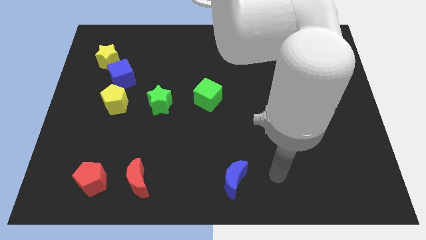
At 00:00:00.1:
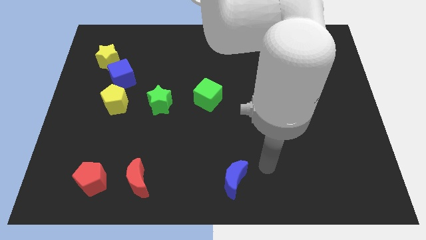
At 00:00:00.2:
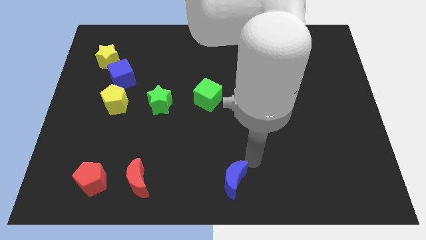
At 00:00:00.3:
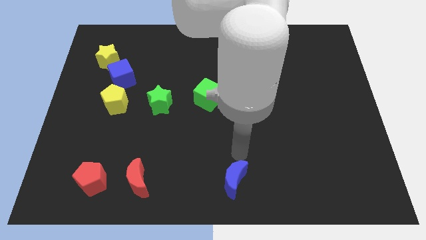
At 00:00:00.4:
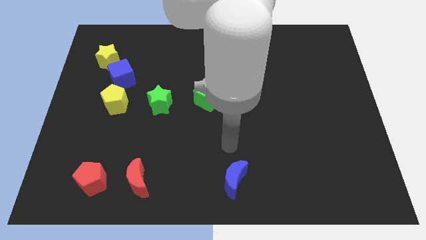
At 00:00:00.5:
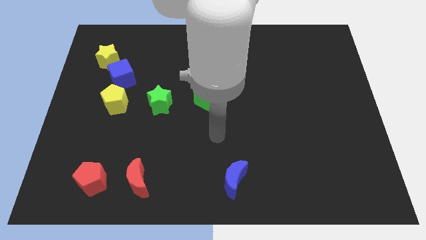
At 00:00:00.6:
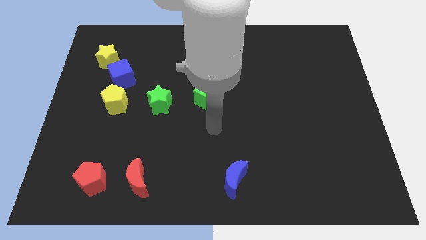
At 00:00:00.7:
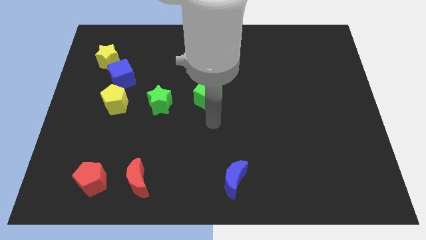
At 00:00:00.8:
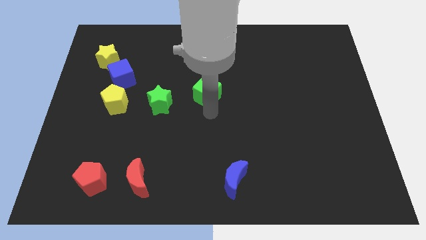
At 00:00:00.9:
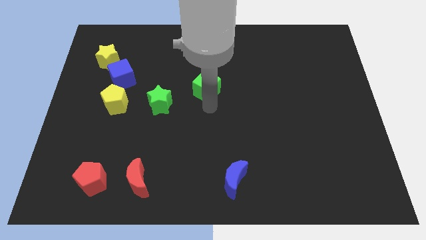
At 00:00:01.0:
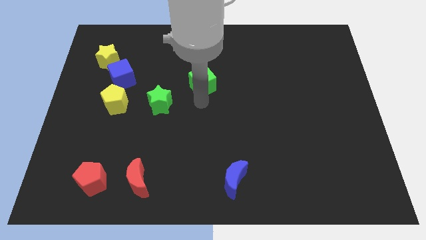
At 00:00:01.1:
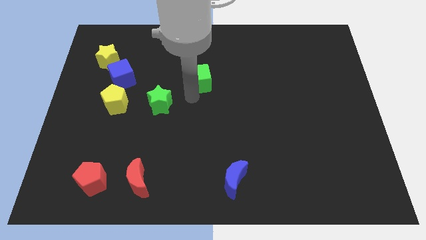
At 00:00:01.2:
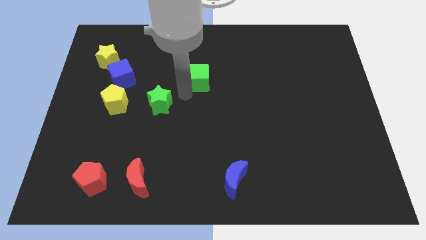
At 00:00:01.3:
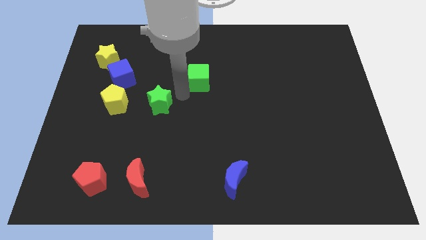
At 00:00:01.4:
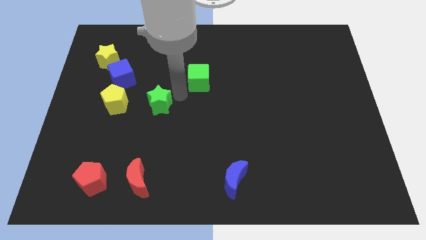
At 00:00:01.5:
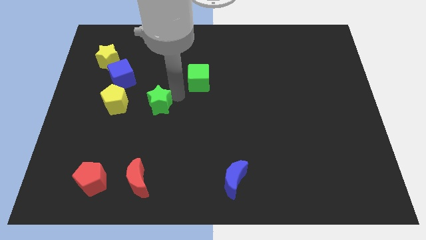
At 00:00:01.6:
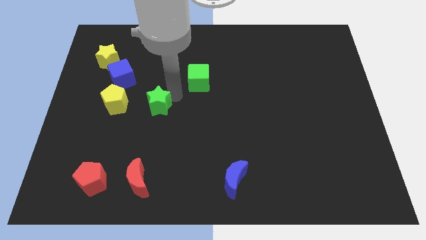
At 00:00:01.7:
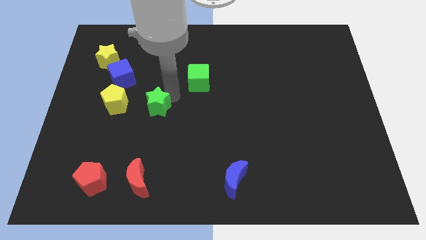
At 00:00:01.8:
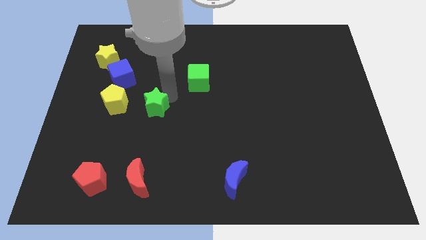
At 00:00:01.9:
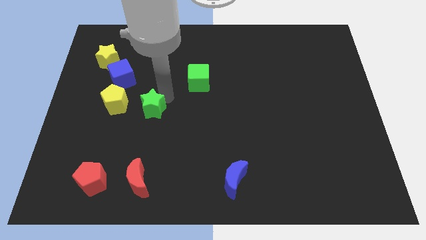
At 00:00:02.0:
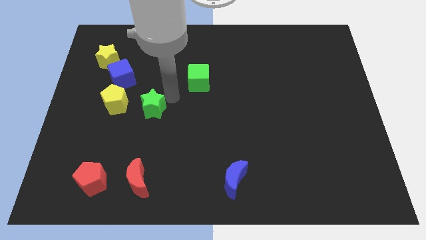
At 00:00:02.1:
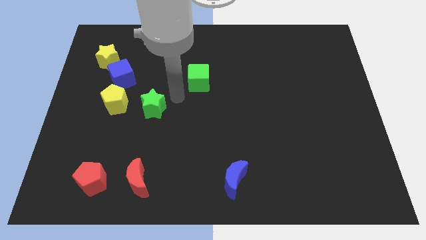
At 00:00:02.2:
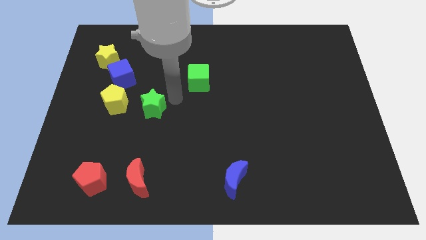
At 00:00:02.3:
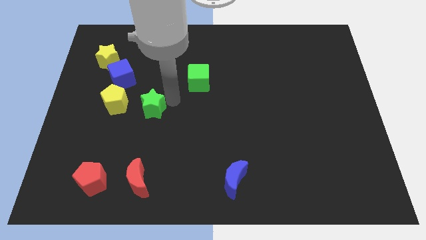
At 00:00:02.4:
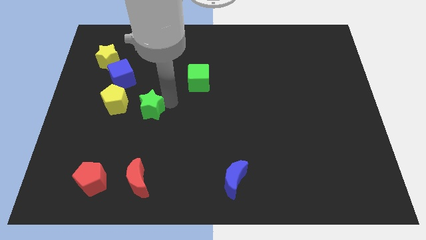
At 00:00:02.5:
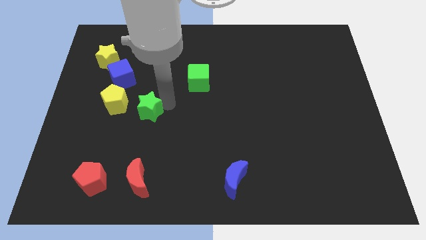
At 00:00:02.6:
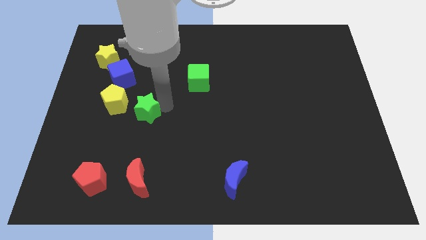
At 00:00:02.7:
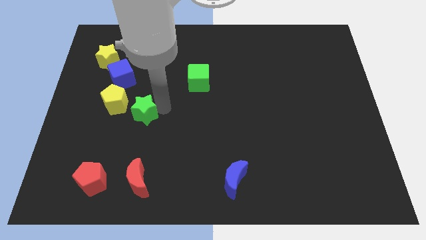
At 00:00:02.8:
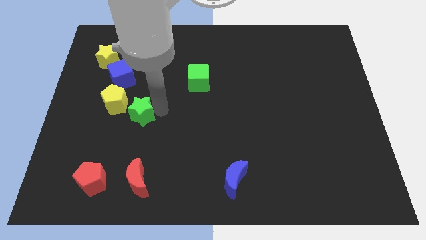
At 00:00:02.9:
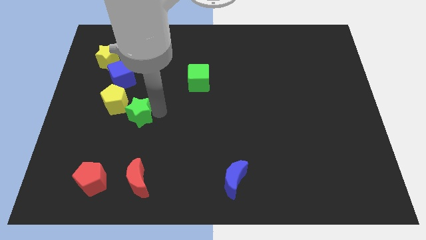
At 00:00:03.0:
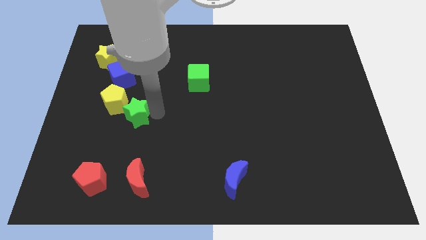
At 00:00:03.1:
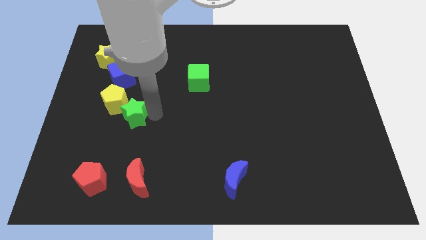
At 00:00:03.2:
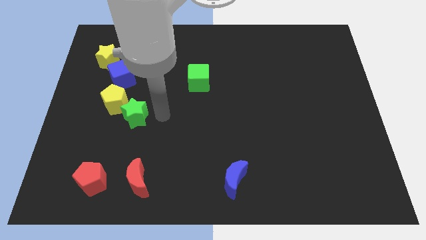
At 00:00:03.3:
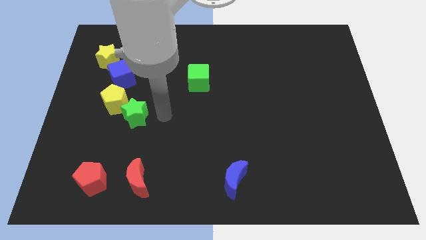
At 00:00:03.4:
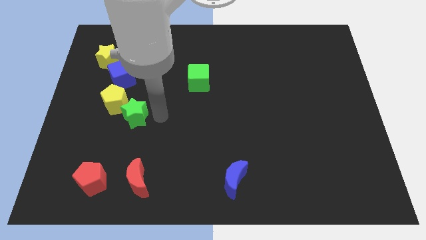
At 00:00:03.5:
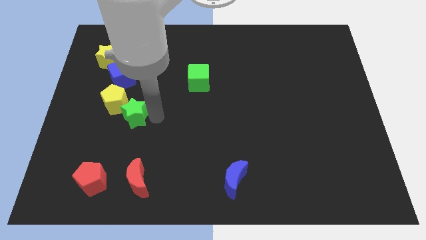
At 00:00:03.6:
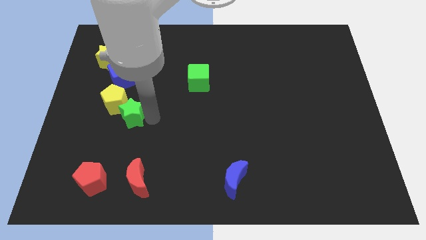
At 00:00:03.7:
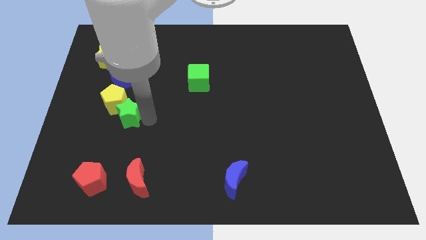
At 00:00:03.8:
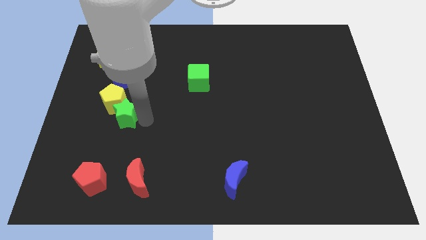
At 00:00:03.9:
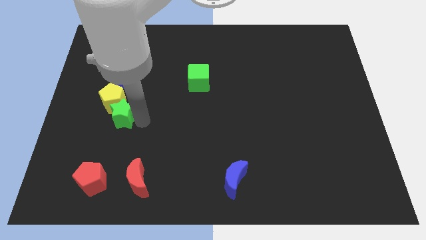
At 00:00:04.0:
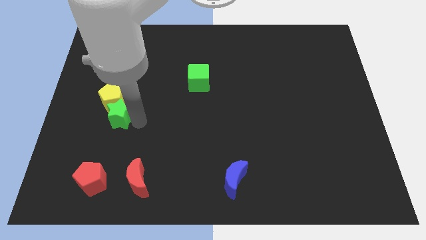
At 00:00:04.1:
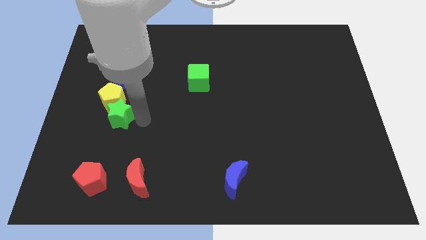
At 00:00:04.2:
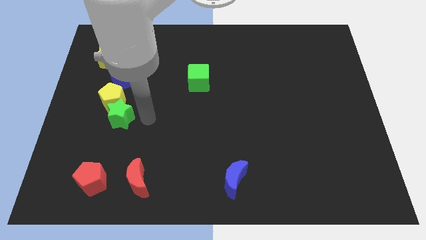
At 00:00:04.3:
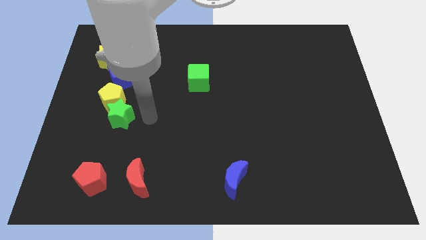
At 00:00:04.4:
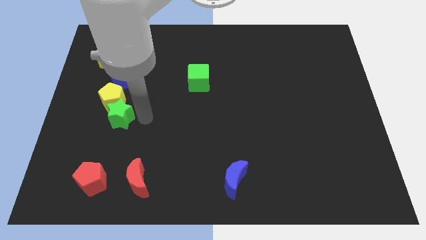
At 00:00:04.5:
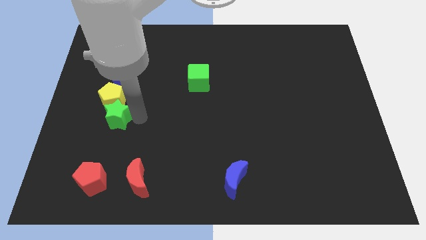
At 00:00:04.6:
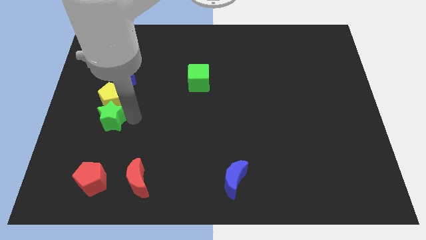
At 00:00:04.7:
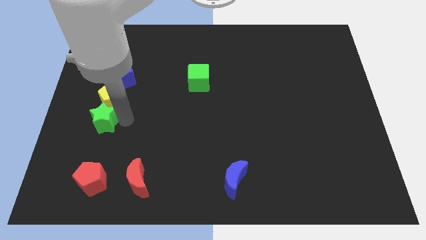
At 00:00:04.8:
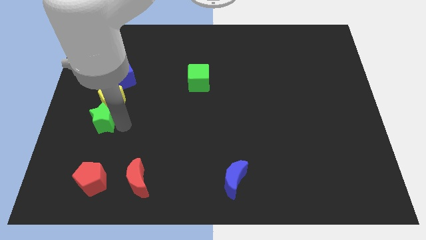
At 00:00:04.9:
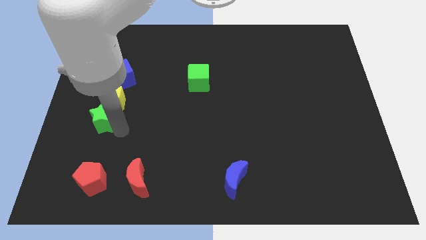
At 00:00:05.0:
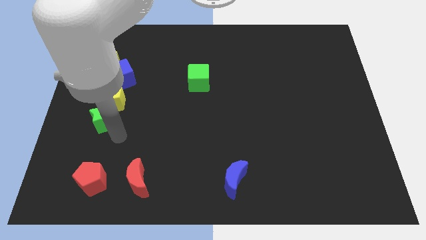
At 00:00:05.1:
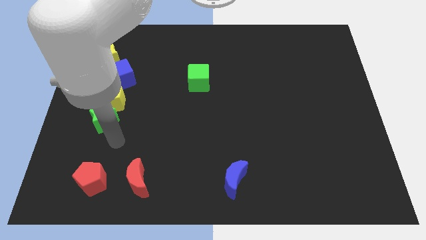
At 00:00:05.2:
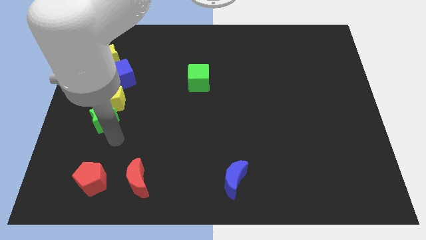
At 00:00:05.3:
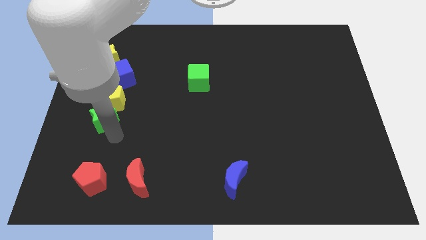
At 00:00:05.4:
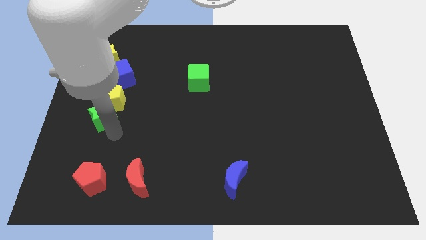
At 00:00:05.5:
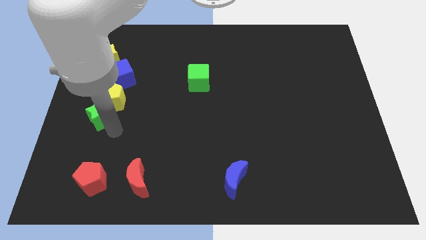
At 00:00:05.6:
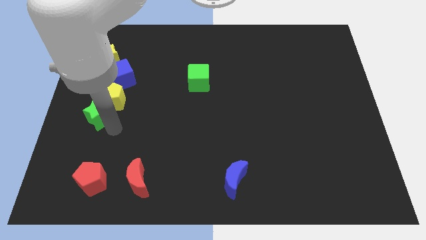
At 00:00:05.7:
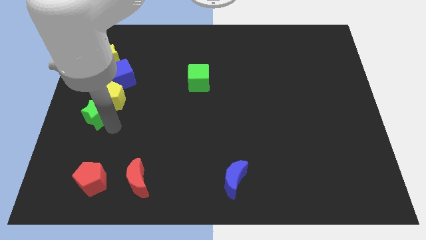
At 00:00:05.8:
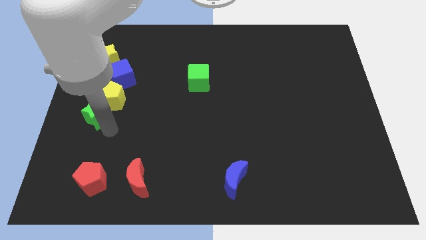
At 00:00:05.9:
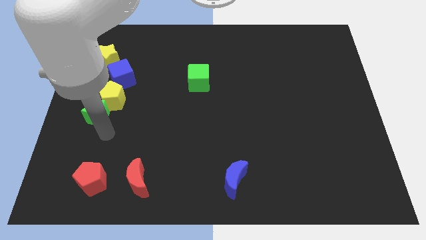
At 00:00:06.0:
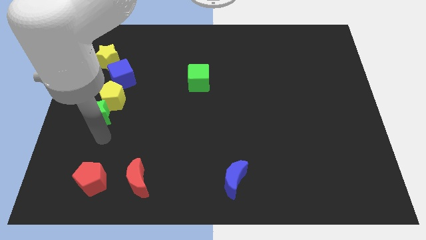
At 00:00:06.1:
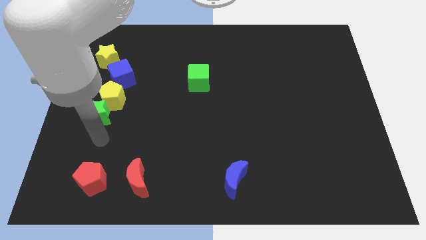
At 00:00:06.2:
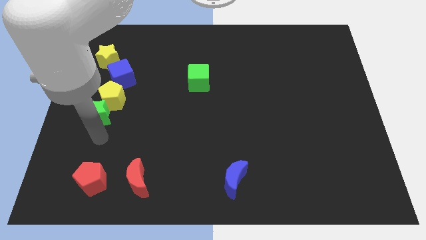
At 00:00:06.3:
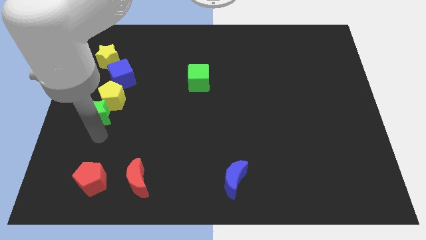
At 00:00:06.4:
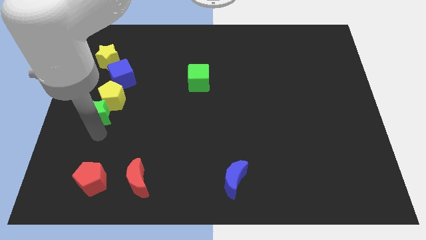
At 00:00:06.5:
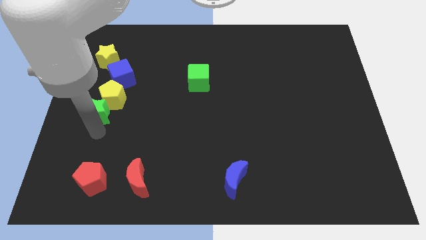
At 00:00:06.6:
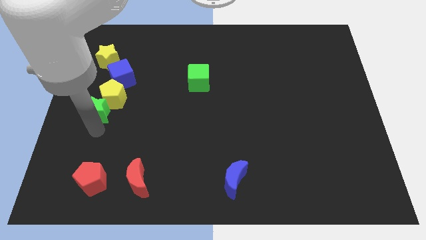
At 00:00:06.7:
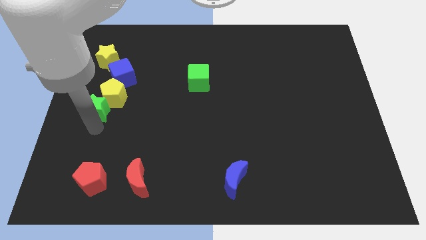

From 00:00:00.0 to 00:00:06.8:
put the green star below the yellow star

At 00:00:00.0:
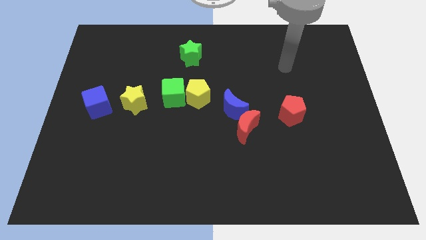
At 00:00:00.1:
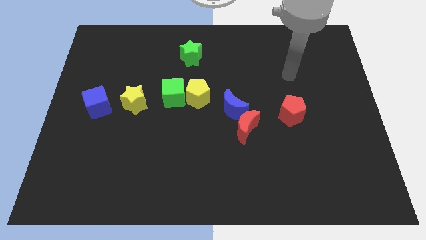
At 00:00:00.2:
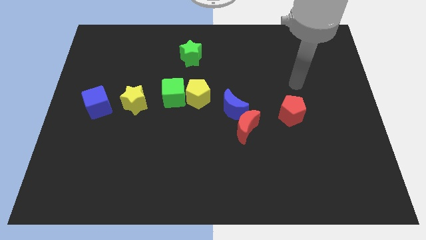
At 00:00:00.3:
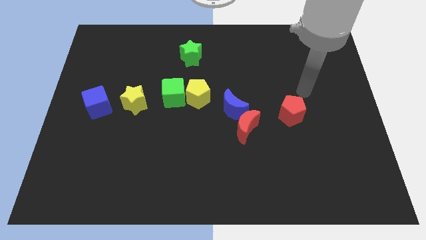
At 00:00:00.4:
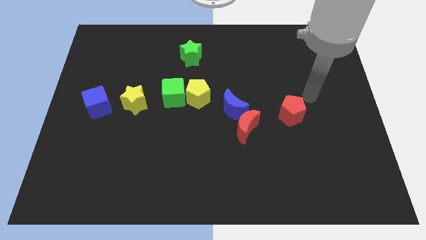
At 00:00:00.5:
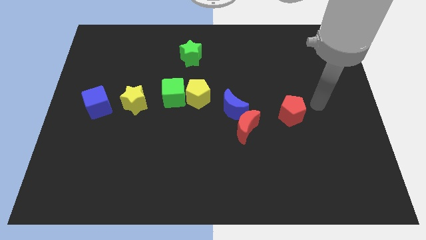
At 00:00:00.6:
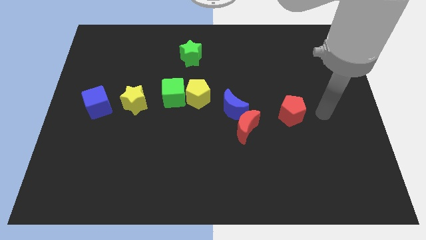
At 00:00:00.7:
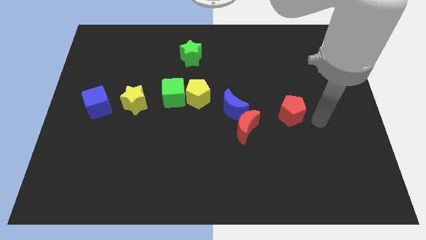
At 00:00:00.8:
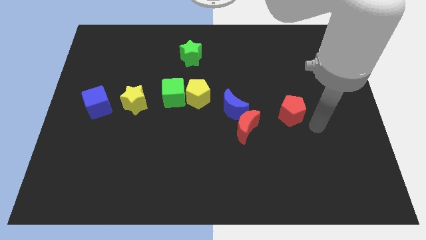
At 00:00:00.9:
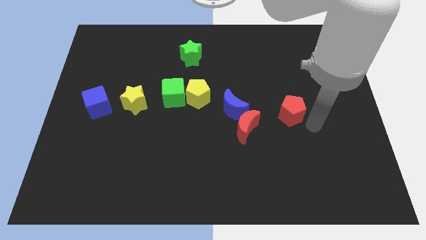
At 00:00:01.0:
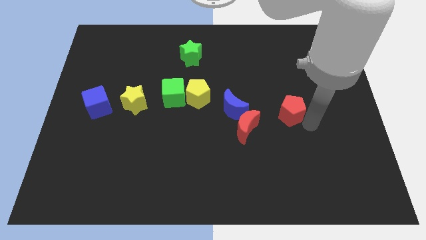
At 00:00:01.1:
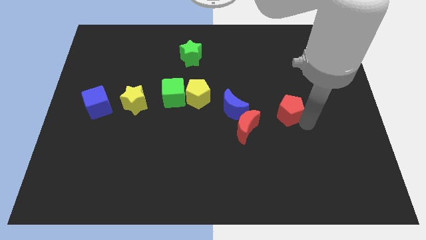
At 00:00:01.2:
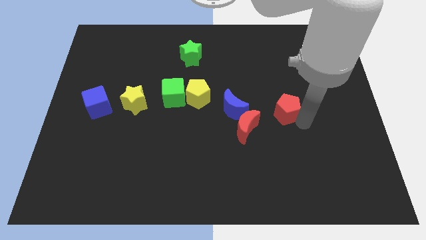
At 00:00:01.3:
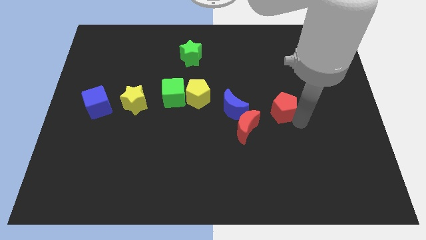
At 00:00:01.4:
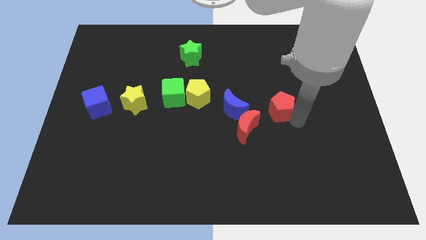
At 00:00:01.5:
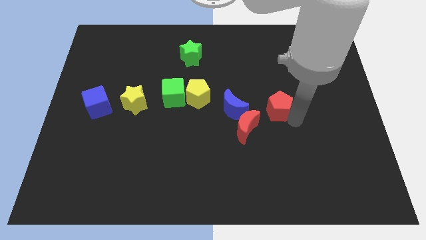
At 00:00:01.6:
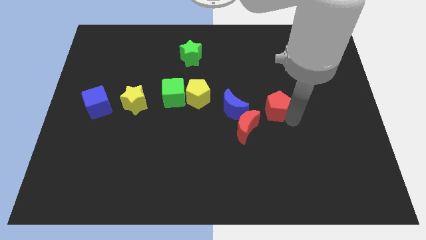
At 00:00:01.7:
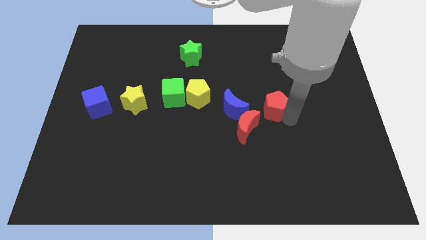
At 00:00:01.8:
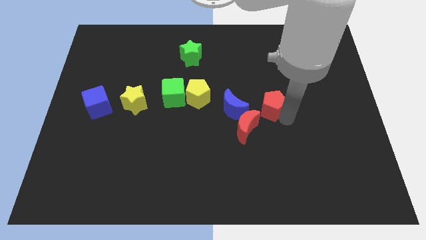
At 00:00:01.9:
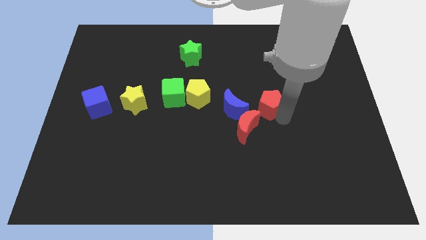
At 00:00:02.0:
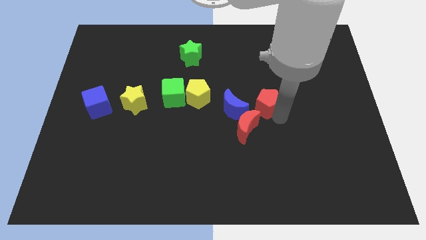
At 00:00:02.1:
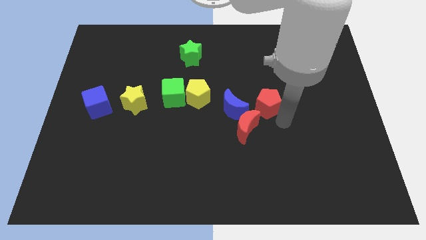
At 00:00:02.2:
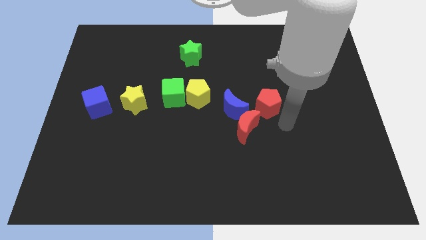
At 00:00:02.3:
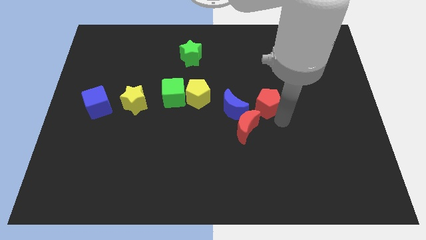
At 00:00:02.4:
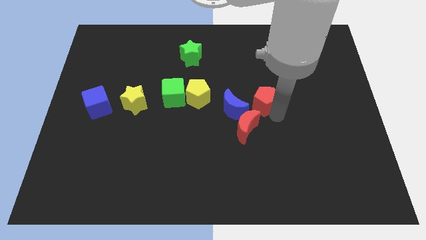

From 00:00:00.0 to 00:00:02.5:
push the red pentagon to the top right of the blue moon
